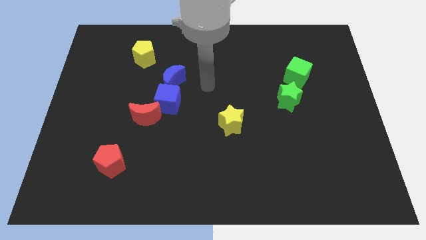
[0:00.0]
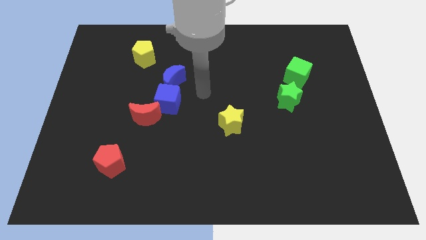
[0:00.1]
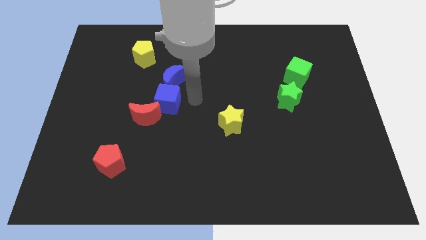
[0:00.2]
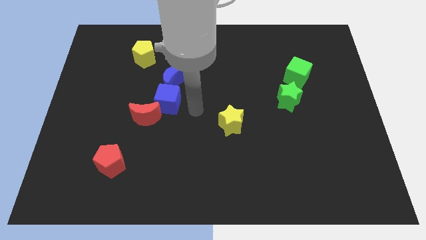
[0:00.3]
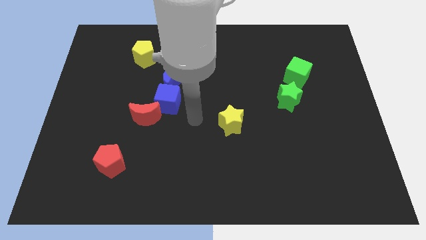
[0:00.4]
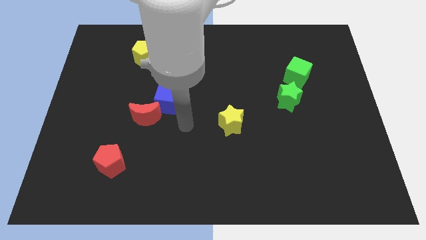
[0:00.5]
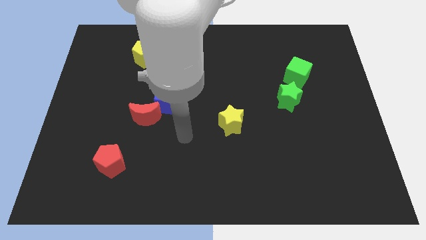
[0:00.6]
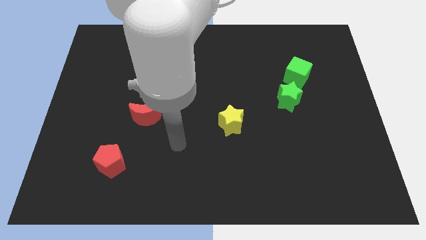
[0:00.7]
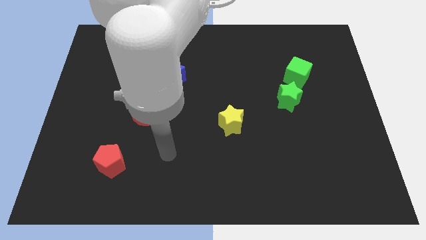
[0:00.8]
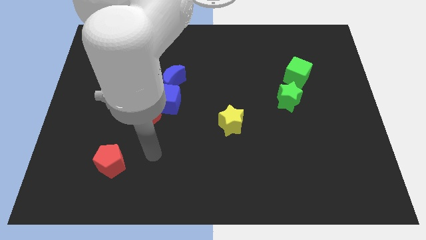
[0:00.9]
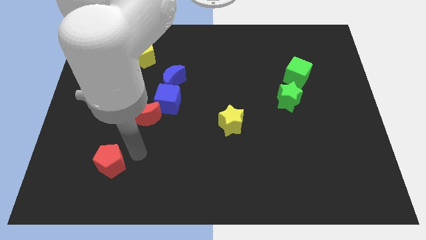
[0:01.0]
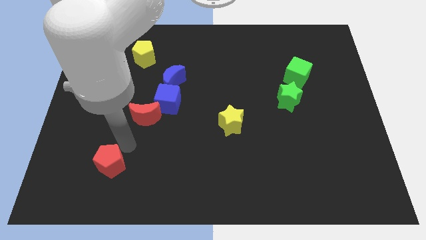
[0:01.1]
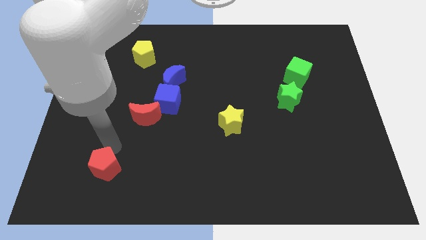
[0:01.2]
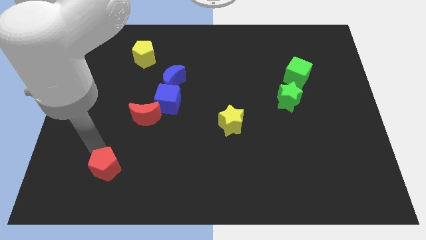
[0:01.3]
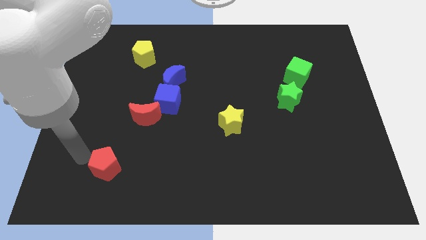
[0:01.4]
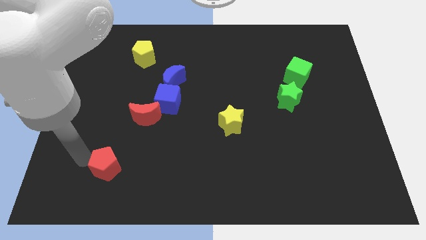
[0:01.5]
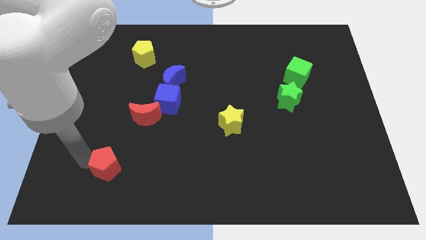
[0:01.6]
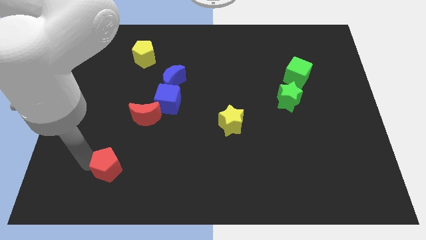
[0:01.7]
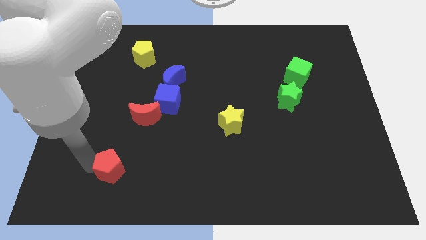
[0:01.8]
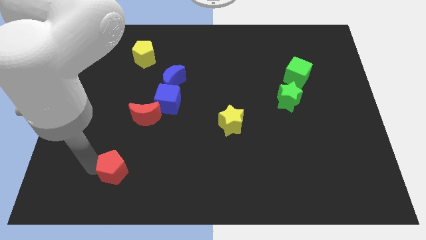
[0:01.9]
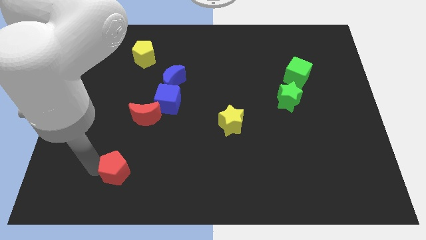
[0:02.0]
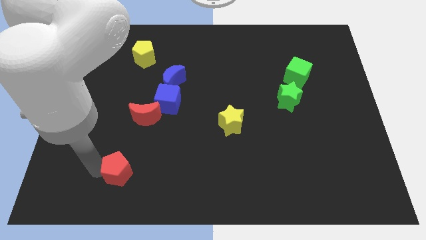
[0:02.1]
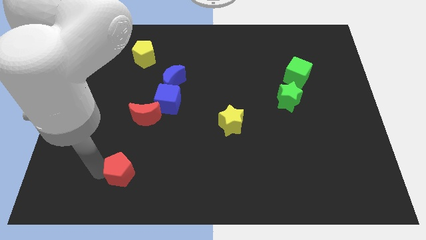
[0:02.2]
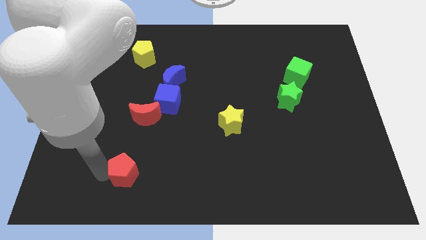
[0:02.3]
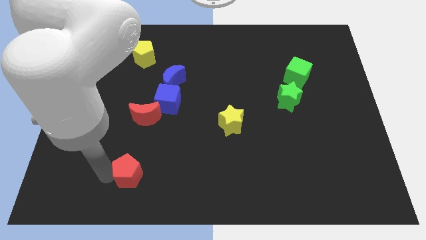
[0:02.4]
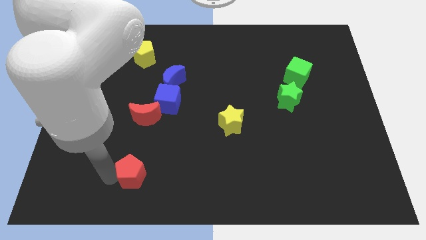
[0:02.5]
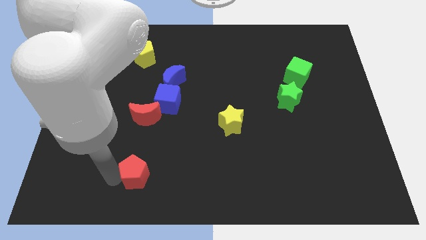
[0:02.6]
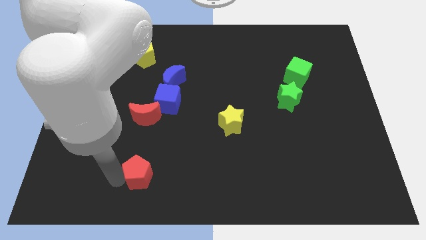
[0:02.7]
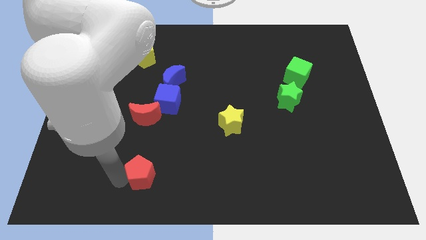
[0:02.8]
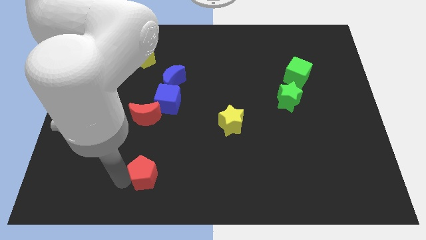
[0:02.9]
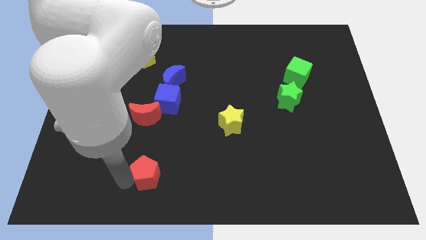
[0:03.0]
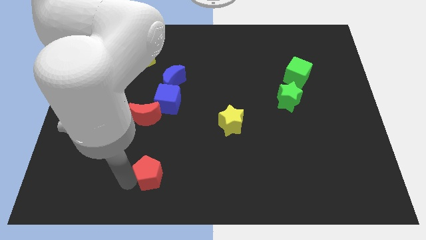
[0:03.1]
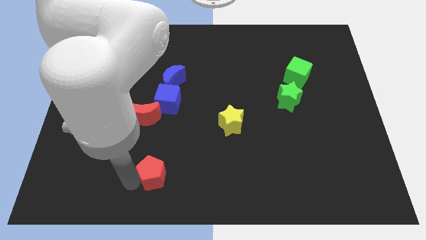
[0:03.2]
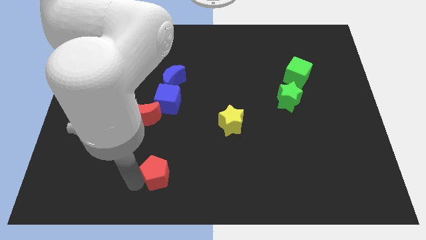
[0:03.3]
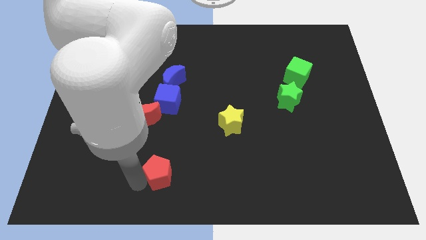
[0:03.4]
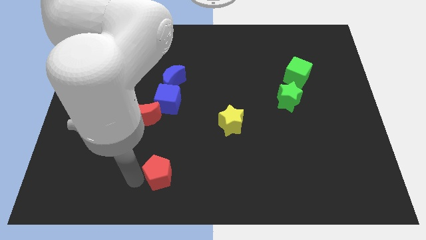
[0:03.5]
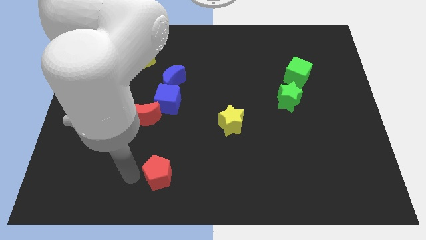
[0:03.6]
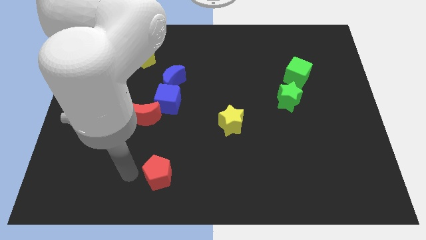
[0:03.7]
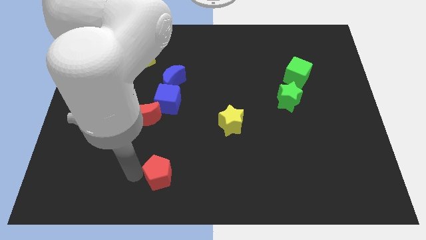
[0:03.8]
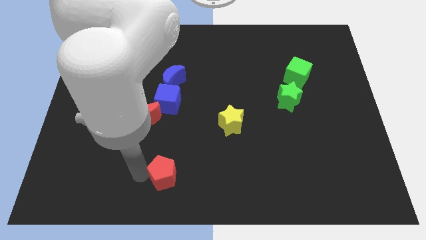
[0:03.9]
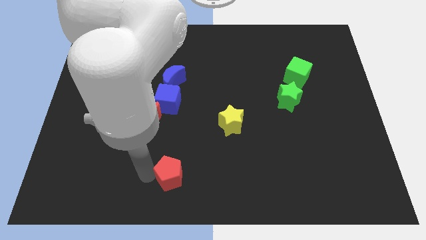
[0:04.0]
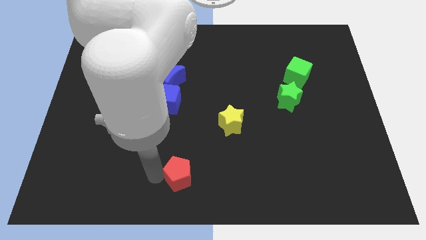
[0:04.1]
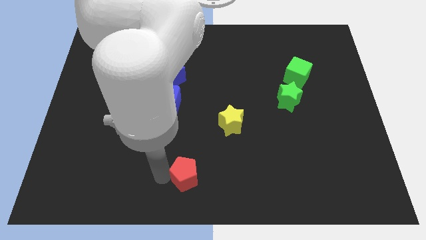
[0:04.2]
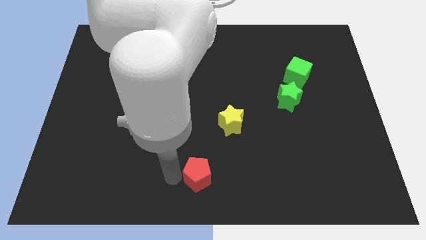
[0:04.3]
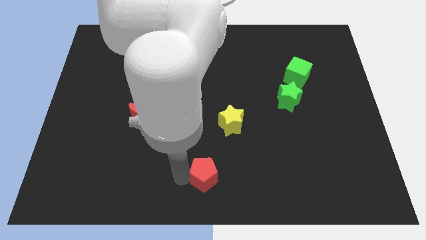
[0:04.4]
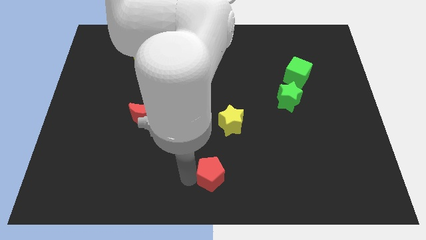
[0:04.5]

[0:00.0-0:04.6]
push the red pentagon to the right

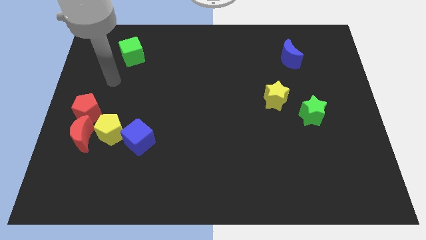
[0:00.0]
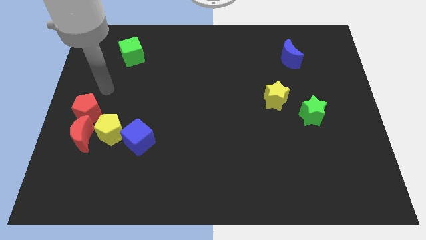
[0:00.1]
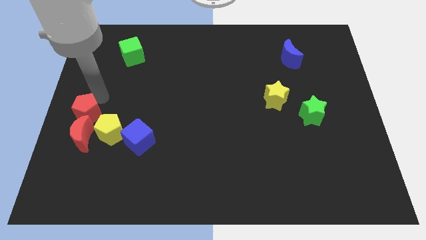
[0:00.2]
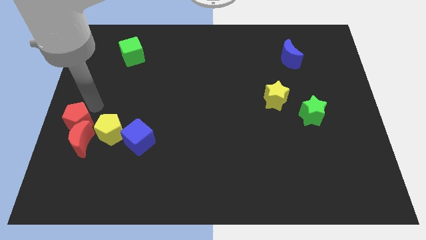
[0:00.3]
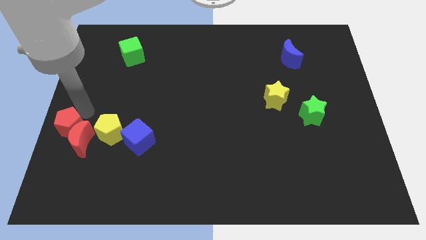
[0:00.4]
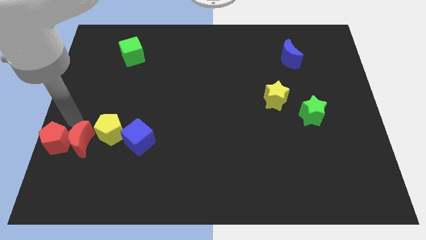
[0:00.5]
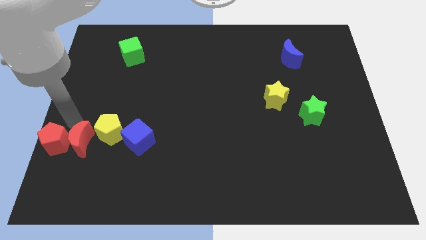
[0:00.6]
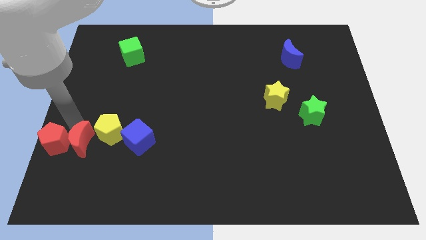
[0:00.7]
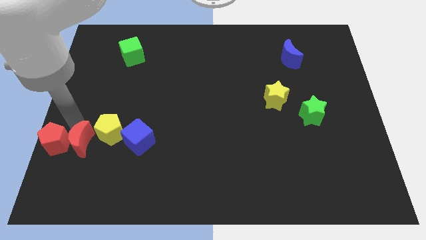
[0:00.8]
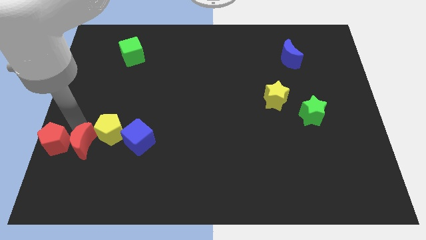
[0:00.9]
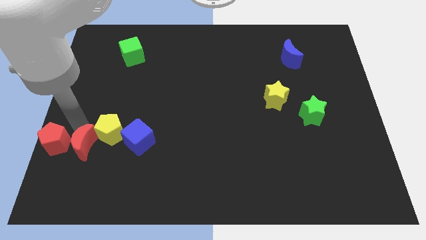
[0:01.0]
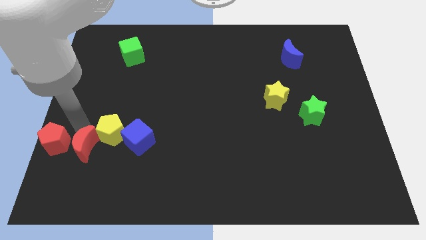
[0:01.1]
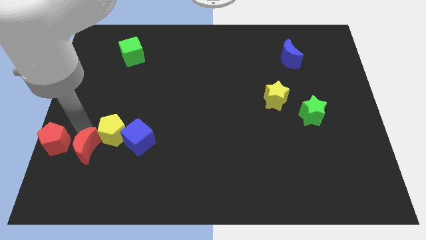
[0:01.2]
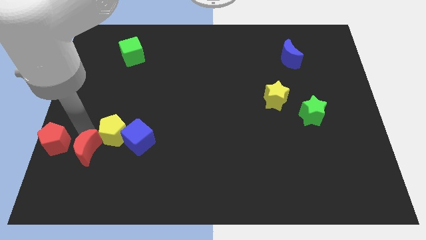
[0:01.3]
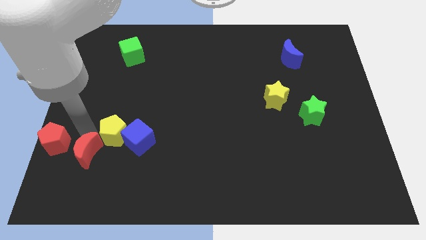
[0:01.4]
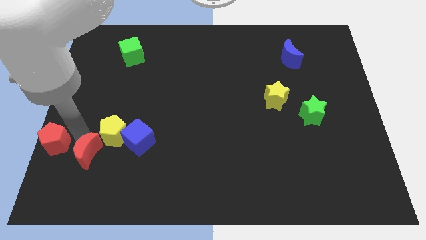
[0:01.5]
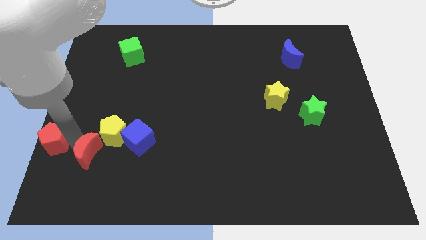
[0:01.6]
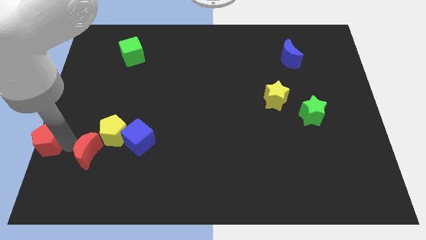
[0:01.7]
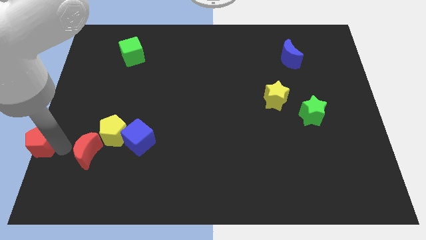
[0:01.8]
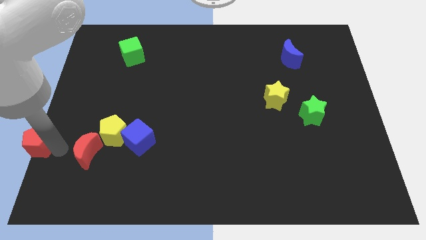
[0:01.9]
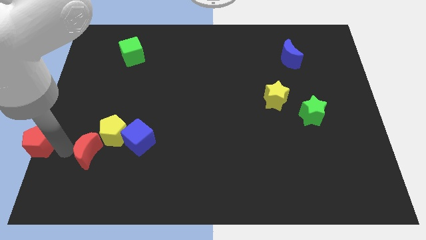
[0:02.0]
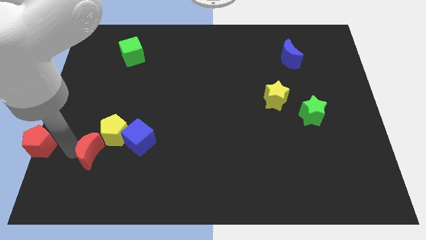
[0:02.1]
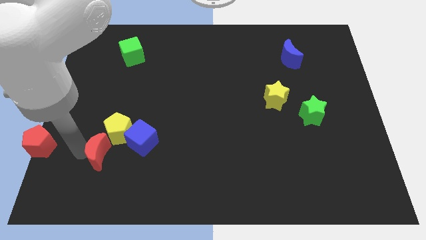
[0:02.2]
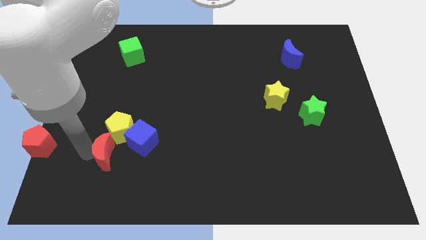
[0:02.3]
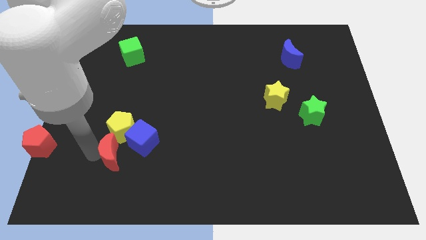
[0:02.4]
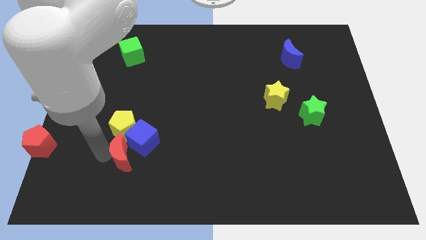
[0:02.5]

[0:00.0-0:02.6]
move the red moon to the right a bit

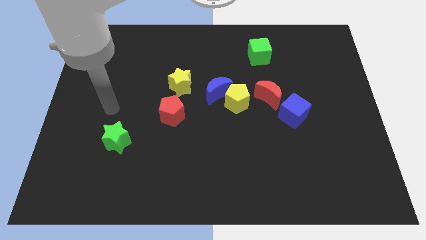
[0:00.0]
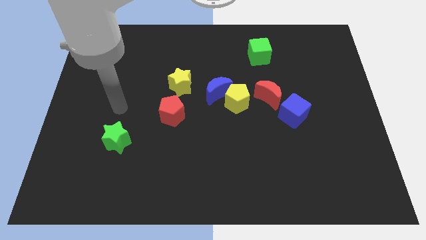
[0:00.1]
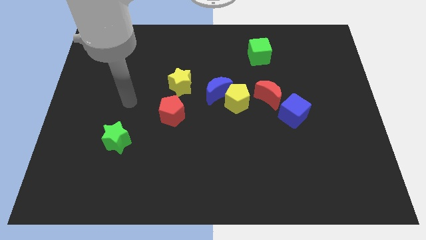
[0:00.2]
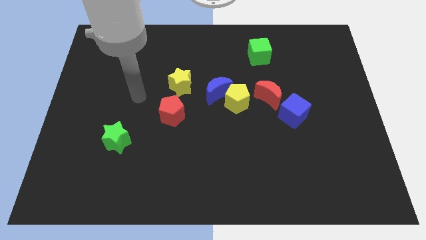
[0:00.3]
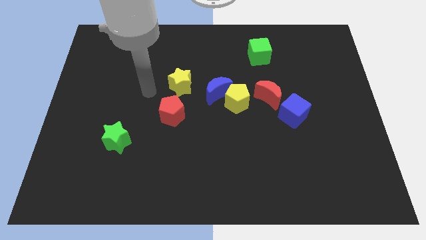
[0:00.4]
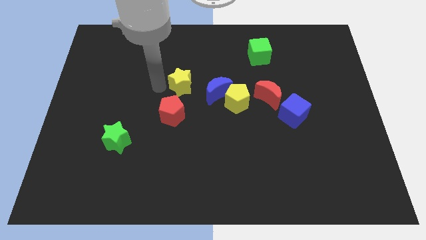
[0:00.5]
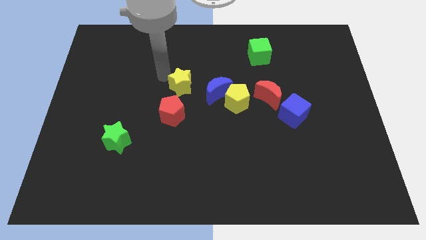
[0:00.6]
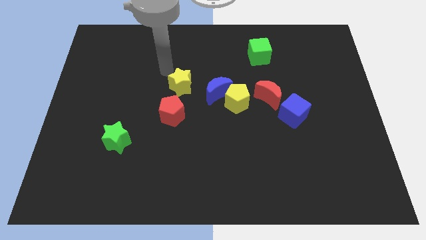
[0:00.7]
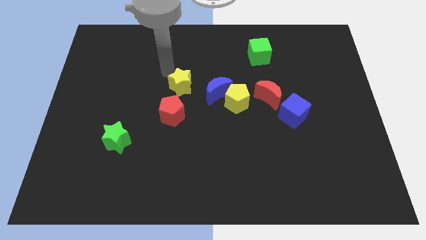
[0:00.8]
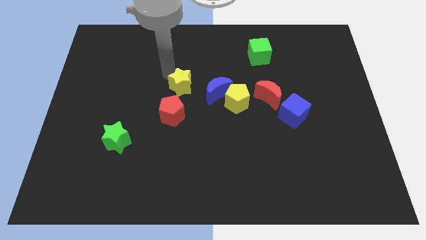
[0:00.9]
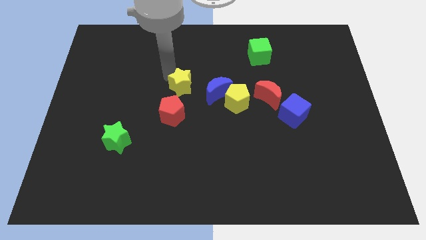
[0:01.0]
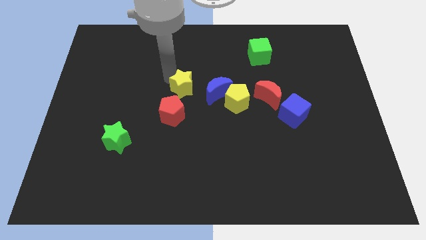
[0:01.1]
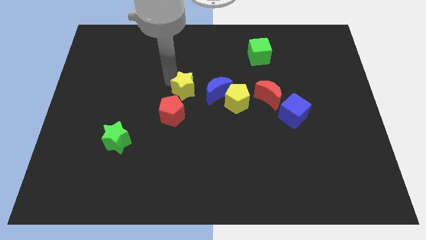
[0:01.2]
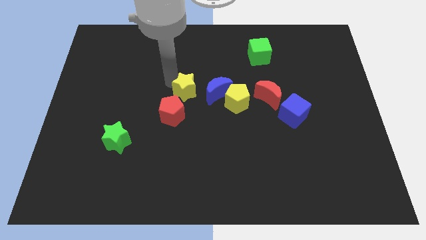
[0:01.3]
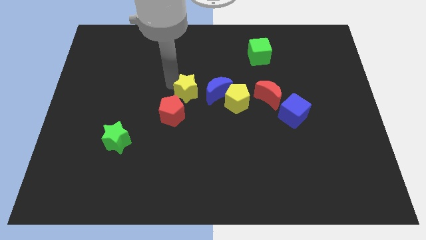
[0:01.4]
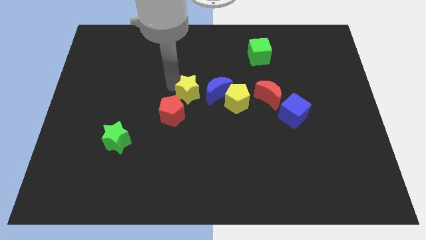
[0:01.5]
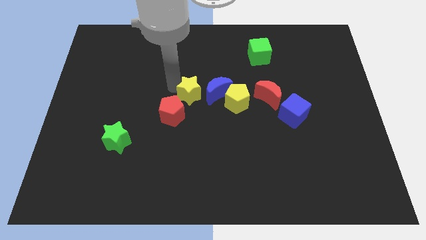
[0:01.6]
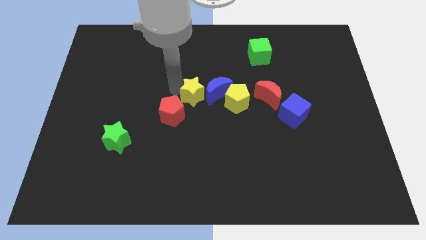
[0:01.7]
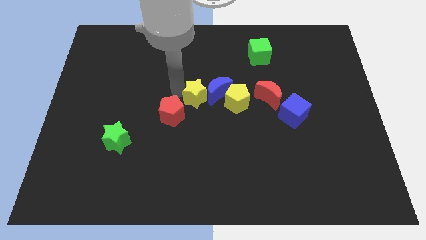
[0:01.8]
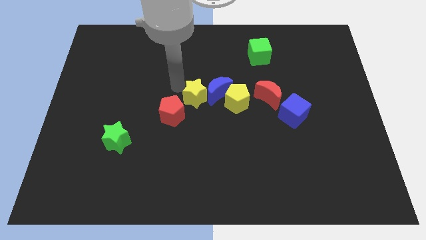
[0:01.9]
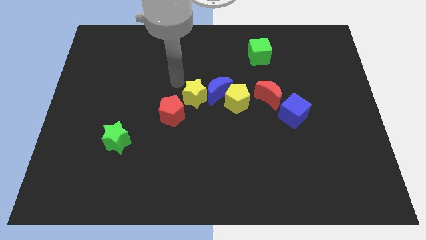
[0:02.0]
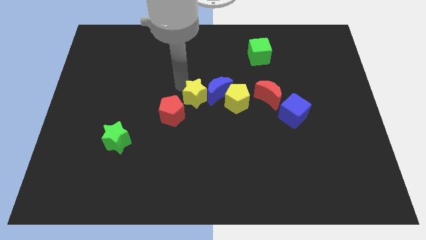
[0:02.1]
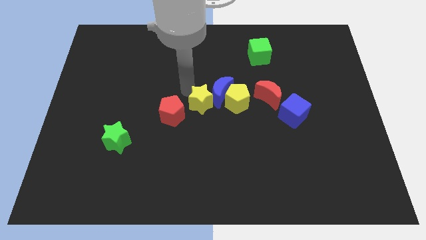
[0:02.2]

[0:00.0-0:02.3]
push the yellow star diagonally down and to the right slightly
